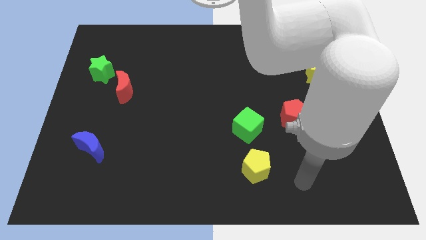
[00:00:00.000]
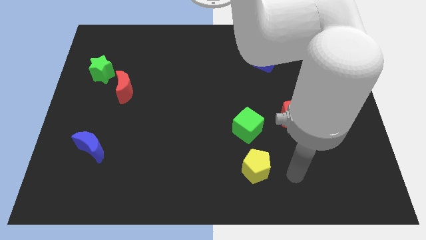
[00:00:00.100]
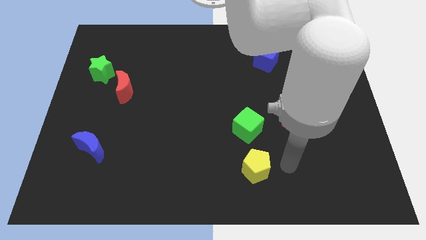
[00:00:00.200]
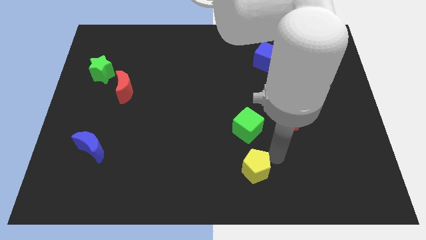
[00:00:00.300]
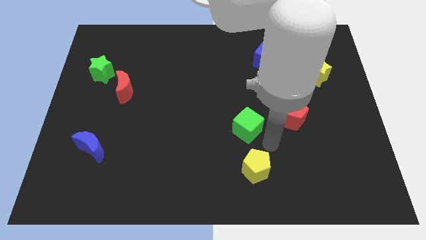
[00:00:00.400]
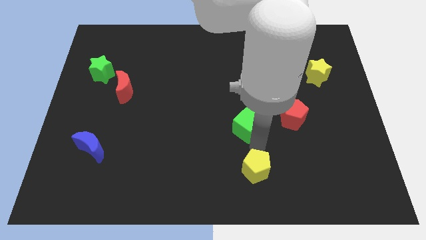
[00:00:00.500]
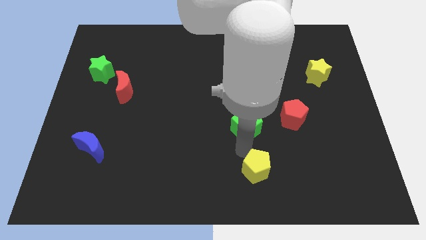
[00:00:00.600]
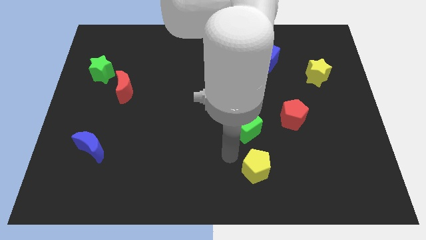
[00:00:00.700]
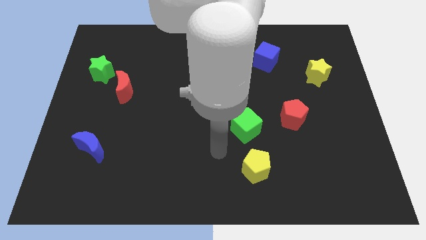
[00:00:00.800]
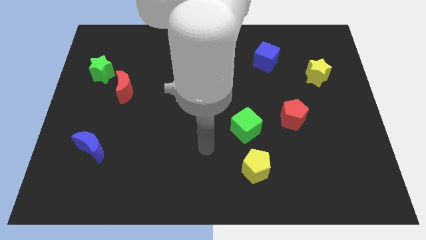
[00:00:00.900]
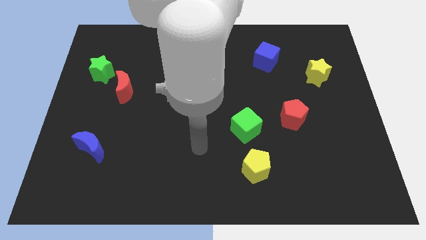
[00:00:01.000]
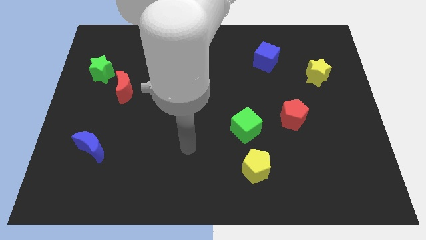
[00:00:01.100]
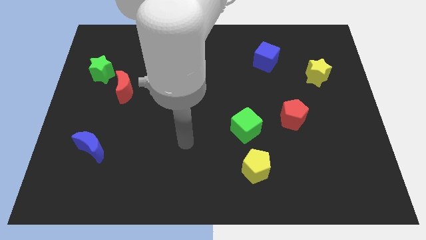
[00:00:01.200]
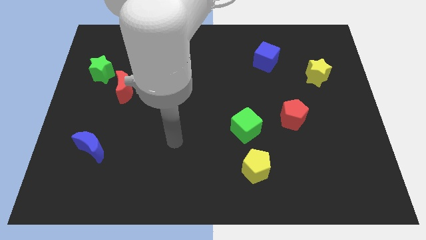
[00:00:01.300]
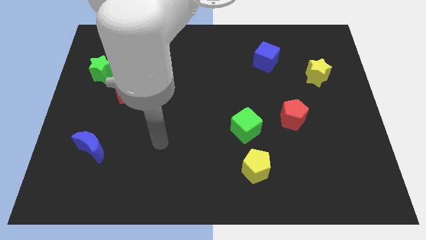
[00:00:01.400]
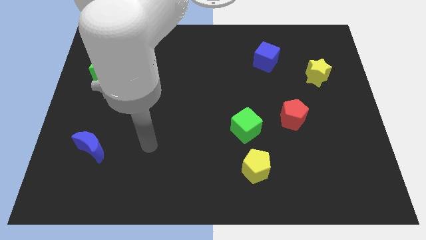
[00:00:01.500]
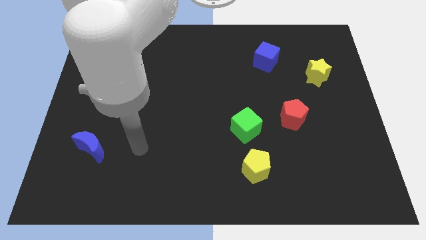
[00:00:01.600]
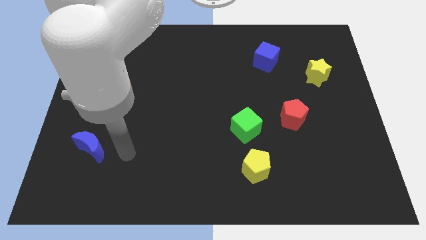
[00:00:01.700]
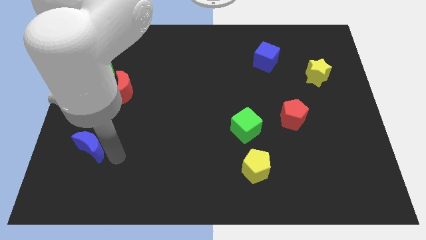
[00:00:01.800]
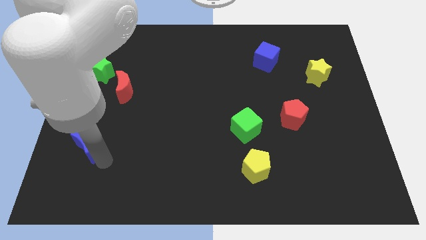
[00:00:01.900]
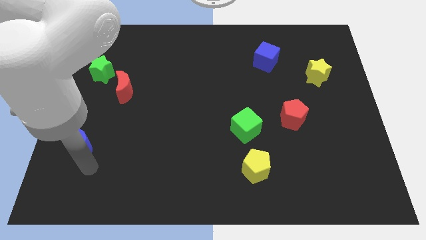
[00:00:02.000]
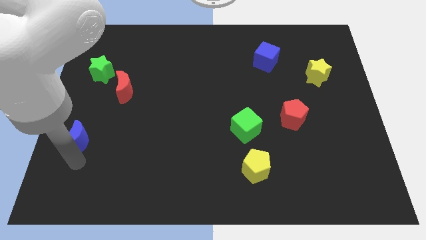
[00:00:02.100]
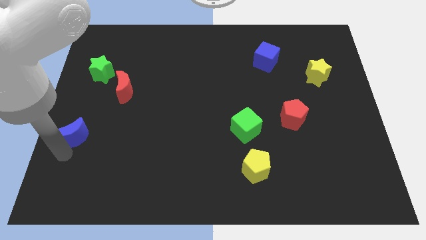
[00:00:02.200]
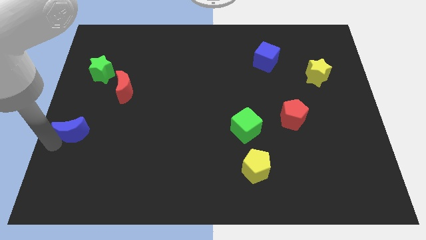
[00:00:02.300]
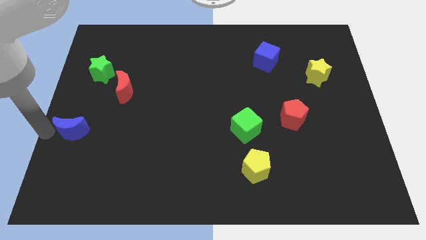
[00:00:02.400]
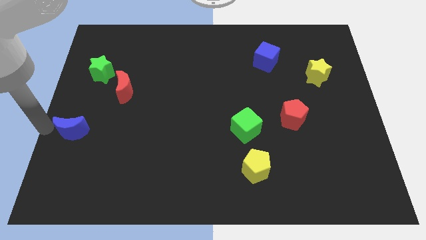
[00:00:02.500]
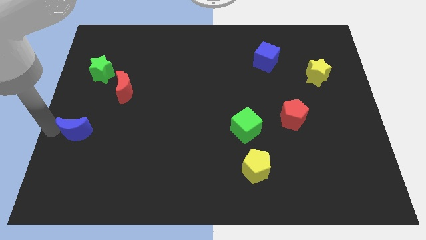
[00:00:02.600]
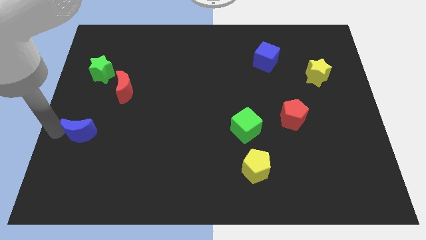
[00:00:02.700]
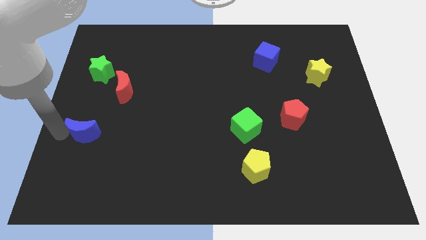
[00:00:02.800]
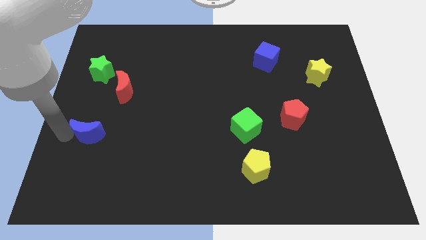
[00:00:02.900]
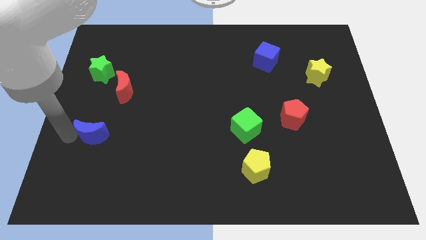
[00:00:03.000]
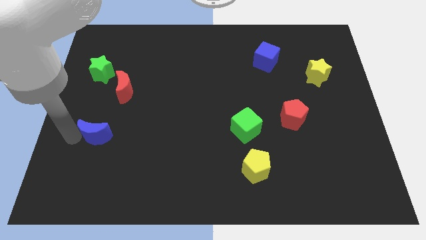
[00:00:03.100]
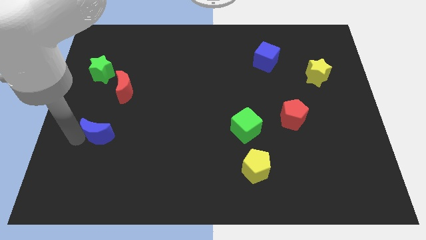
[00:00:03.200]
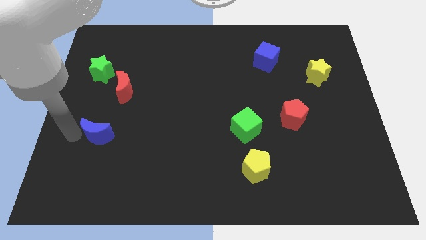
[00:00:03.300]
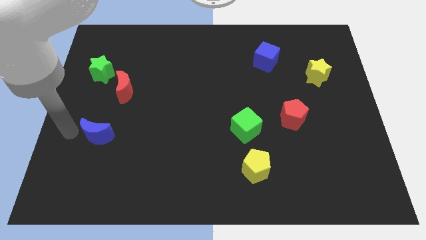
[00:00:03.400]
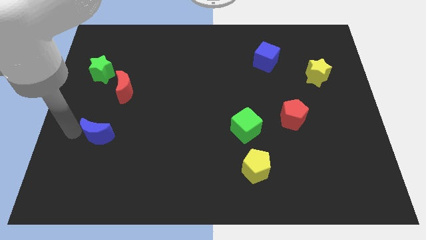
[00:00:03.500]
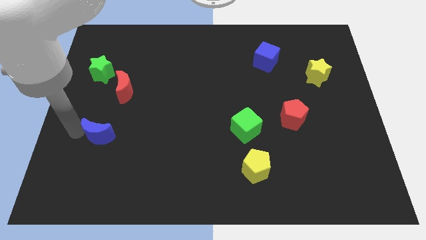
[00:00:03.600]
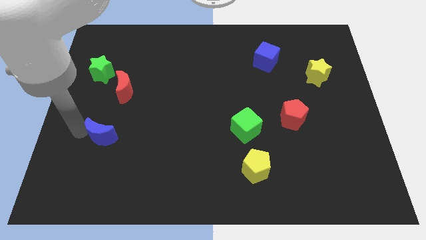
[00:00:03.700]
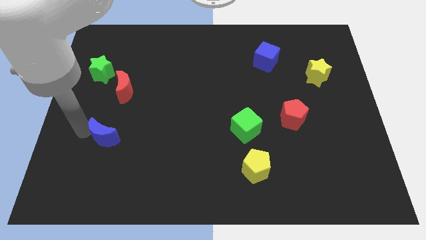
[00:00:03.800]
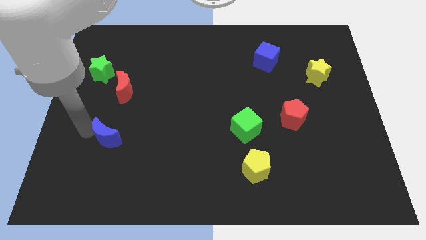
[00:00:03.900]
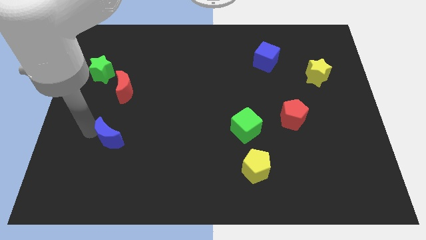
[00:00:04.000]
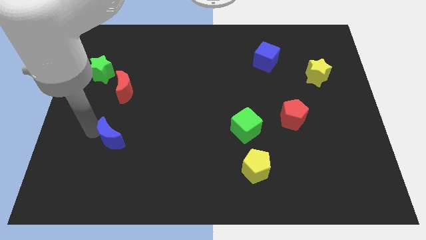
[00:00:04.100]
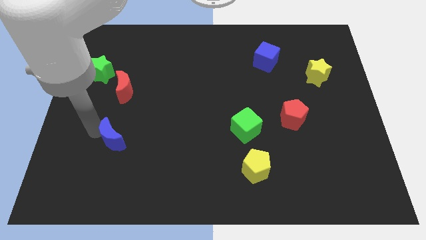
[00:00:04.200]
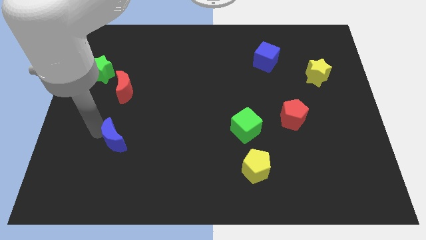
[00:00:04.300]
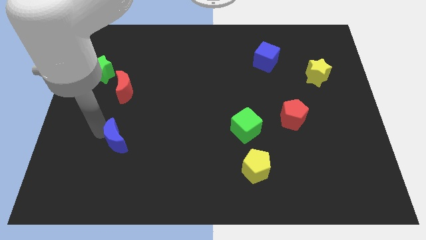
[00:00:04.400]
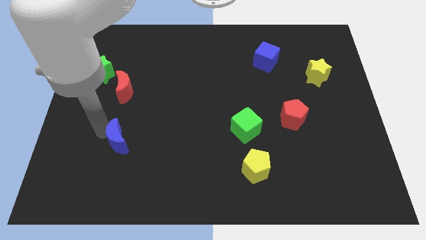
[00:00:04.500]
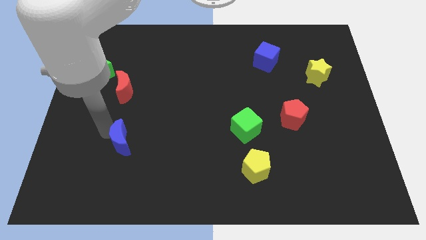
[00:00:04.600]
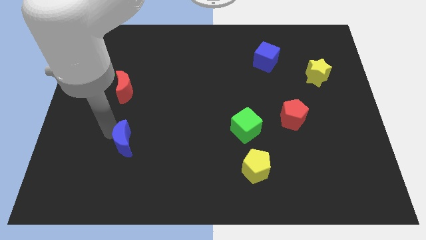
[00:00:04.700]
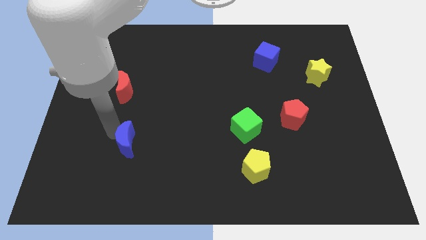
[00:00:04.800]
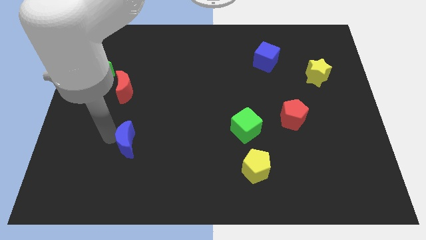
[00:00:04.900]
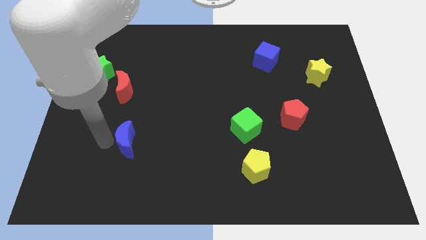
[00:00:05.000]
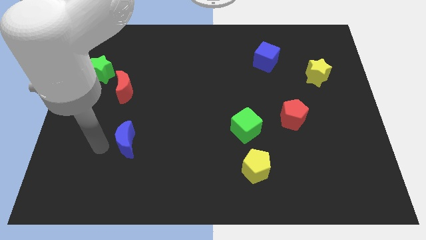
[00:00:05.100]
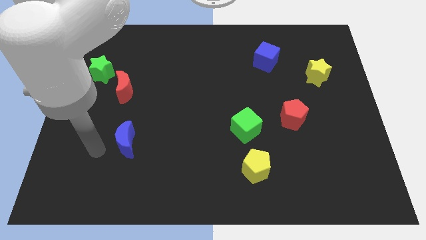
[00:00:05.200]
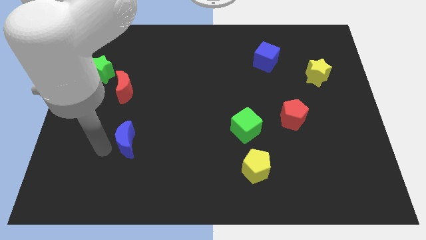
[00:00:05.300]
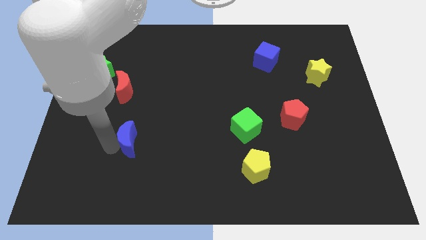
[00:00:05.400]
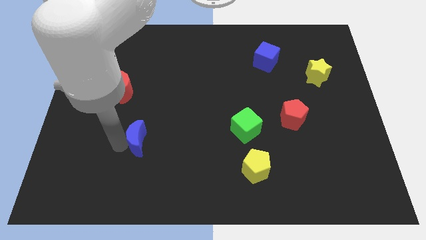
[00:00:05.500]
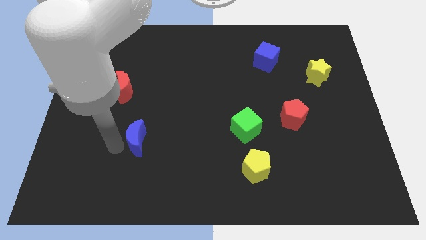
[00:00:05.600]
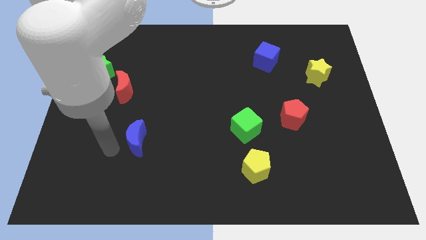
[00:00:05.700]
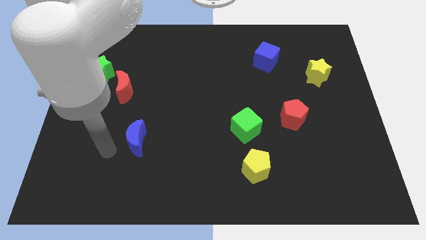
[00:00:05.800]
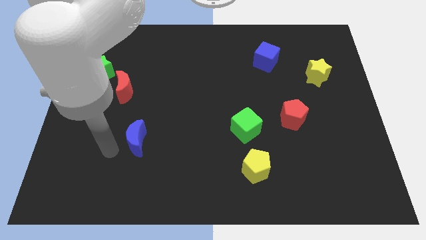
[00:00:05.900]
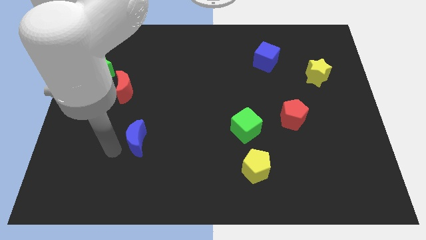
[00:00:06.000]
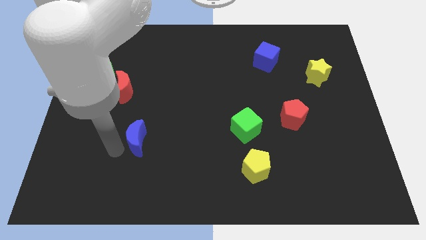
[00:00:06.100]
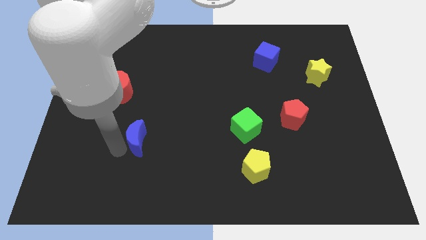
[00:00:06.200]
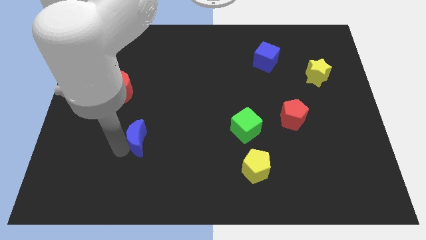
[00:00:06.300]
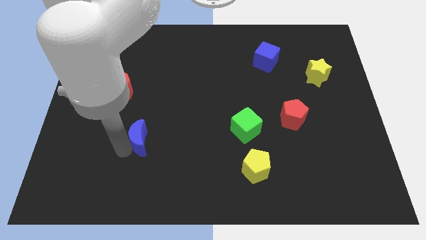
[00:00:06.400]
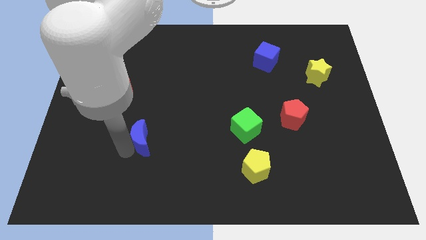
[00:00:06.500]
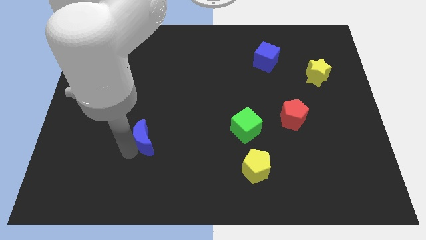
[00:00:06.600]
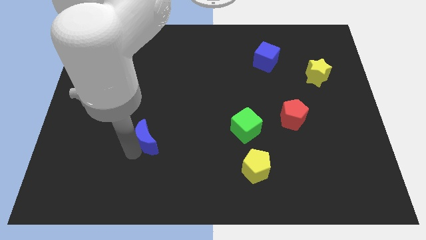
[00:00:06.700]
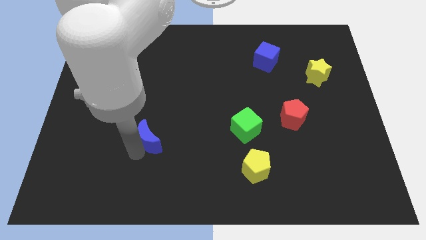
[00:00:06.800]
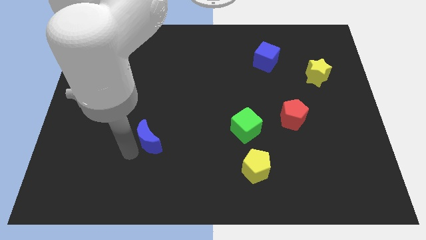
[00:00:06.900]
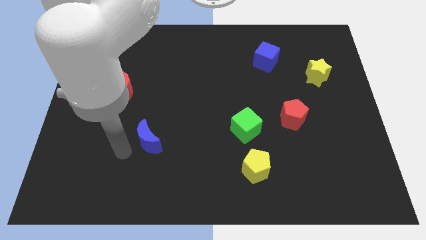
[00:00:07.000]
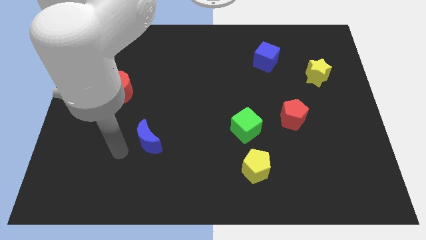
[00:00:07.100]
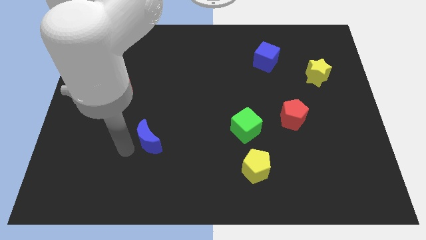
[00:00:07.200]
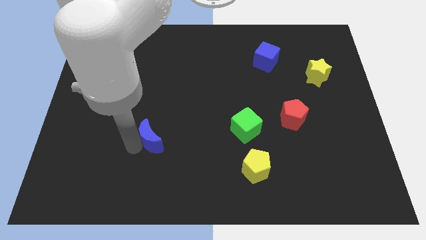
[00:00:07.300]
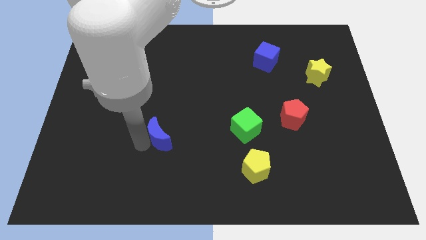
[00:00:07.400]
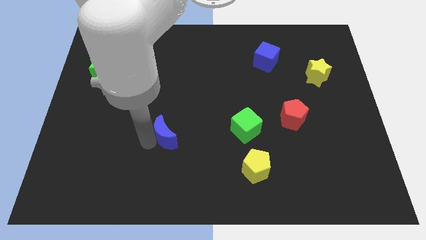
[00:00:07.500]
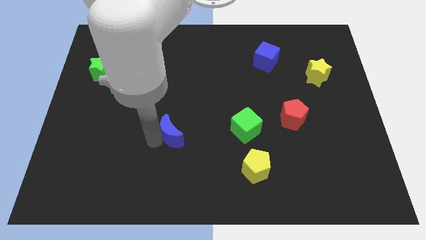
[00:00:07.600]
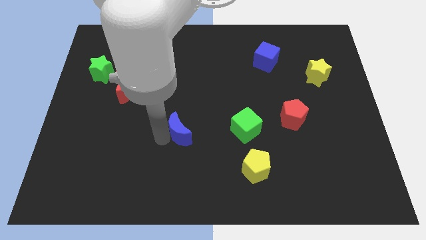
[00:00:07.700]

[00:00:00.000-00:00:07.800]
put the blue moon to the left of the green cube
